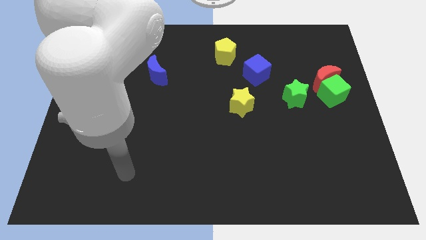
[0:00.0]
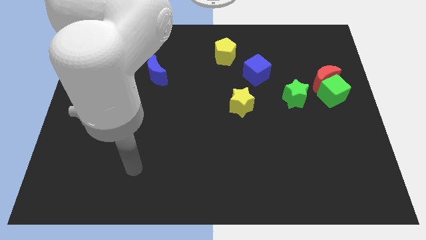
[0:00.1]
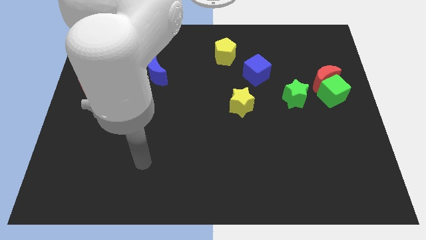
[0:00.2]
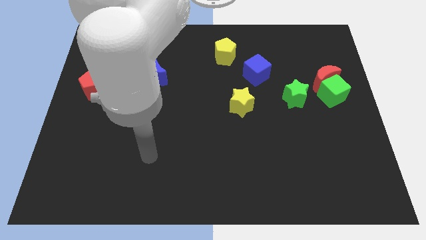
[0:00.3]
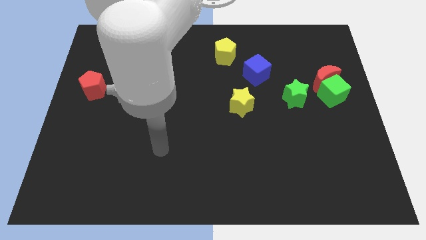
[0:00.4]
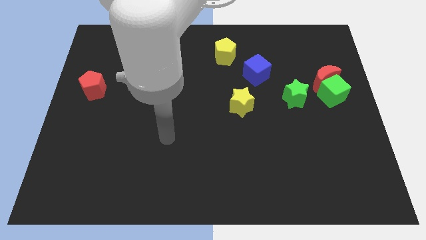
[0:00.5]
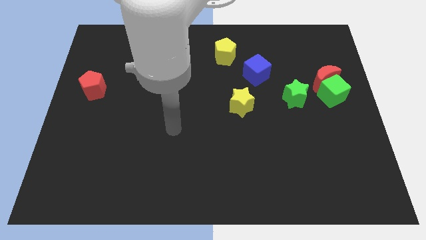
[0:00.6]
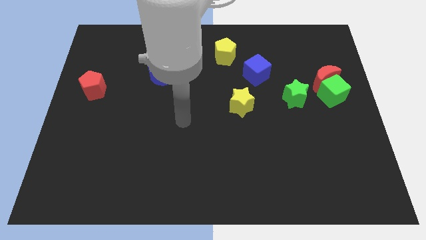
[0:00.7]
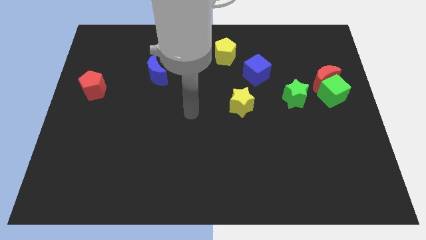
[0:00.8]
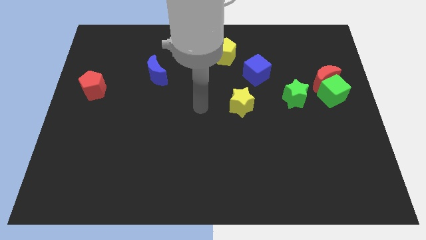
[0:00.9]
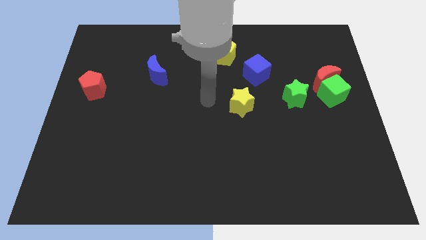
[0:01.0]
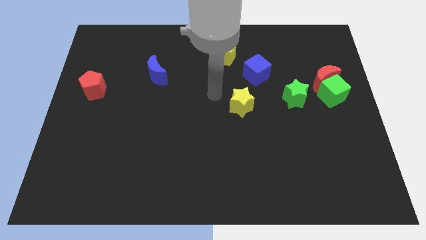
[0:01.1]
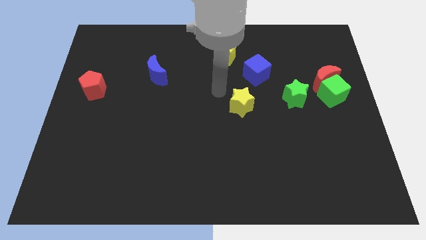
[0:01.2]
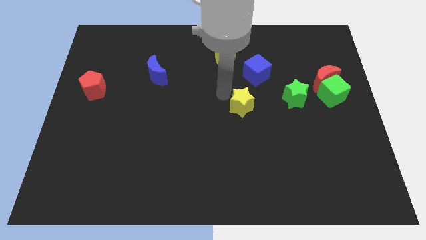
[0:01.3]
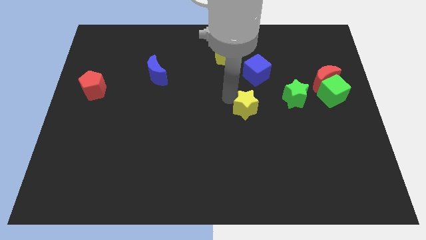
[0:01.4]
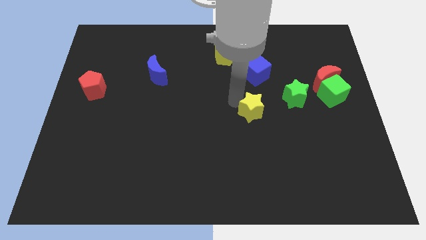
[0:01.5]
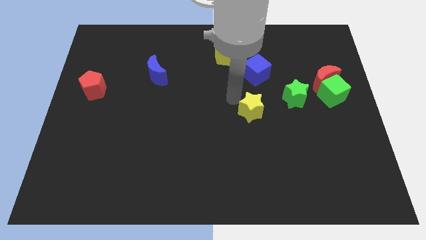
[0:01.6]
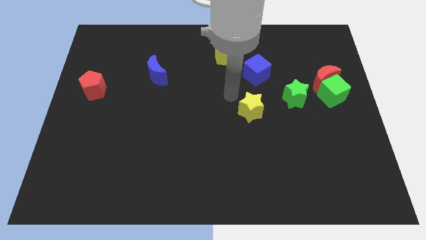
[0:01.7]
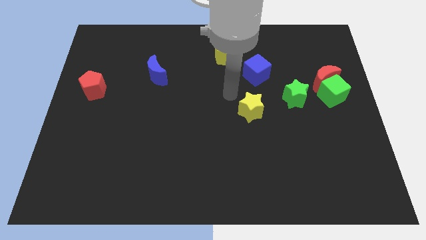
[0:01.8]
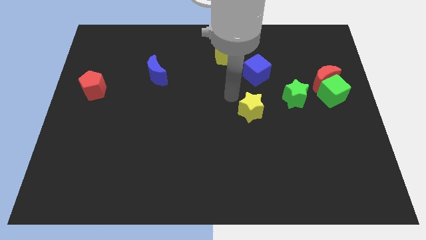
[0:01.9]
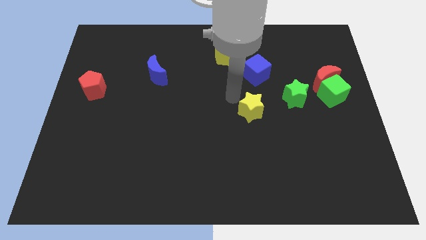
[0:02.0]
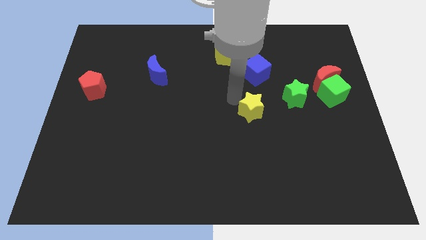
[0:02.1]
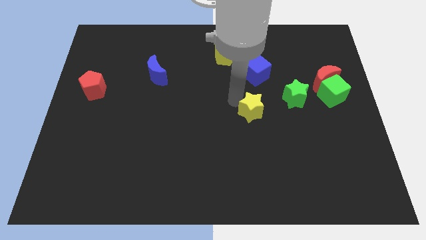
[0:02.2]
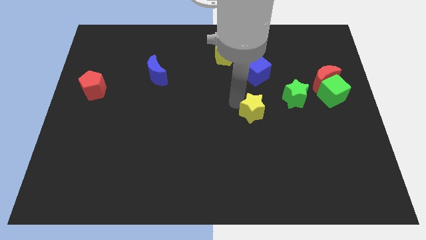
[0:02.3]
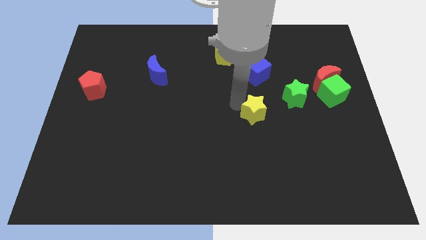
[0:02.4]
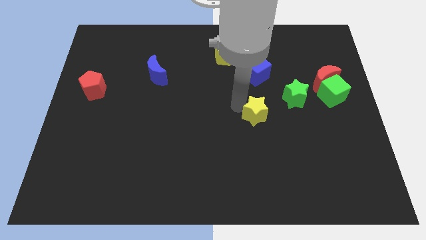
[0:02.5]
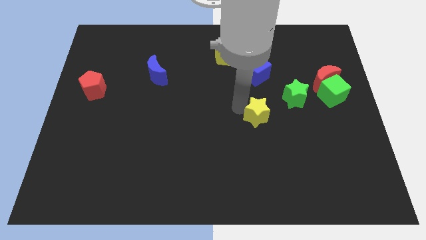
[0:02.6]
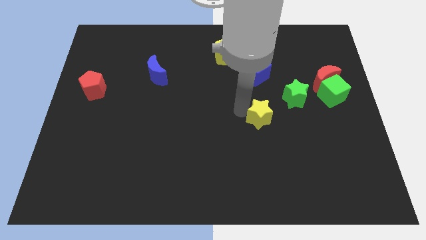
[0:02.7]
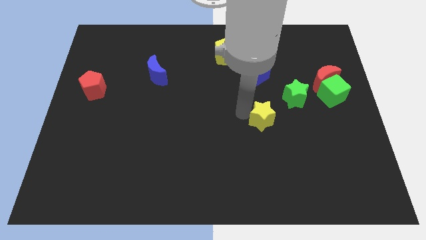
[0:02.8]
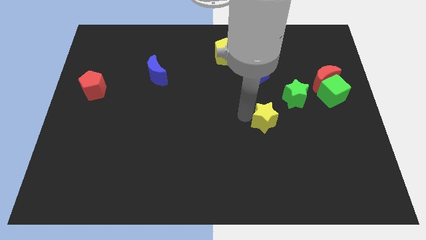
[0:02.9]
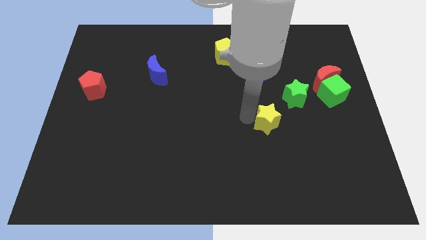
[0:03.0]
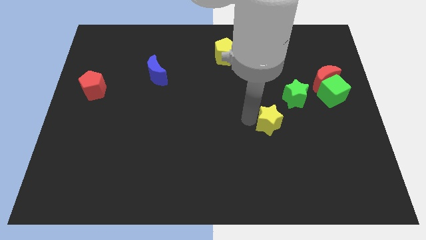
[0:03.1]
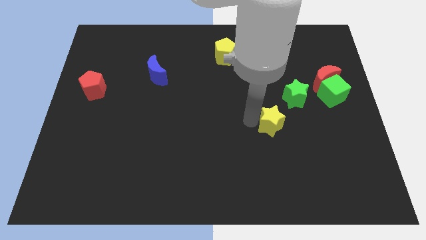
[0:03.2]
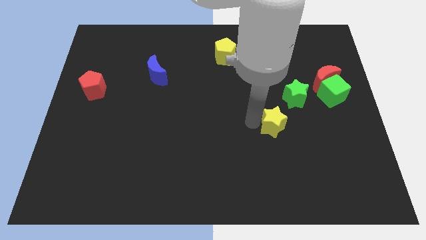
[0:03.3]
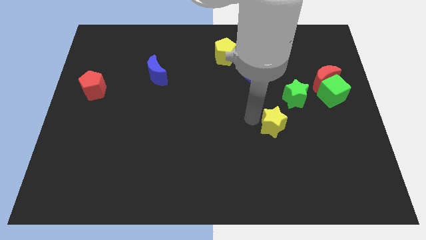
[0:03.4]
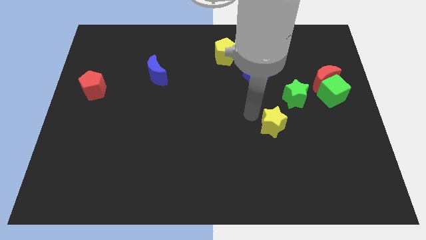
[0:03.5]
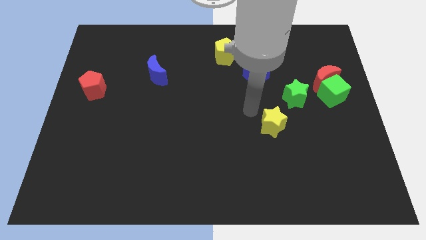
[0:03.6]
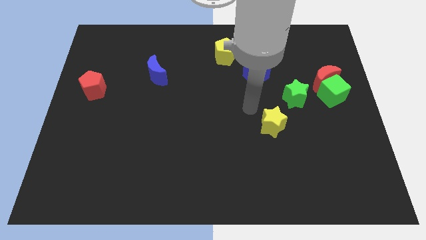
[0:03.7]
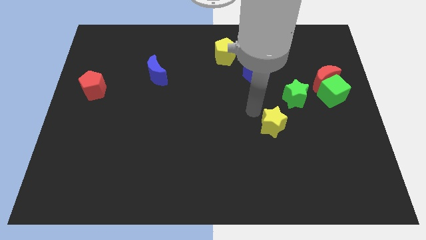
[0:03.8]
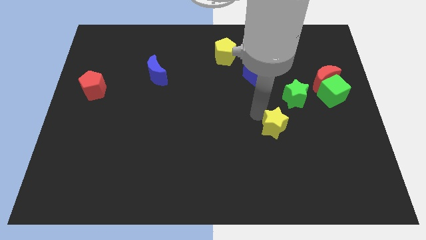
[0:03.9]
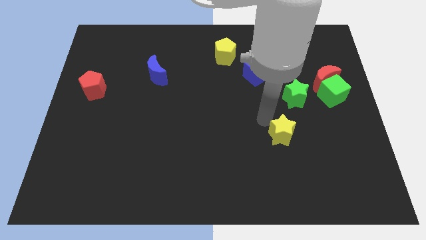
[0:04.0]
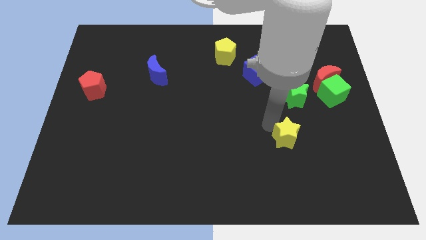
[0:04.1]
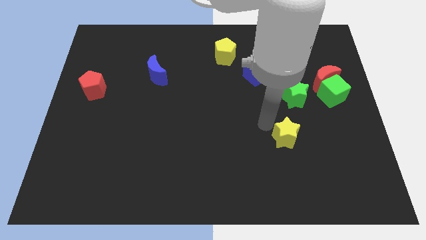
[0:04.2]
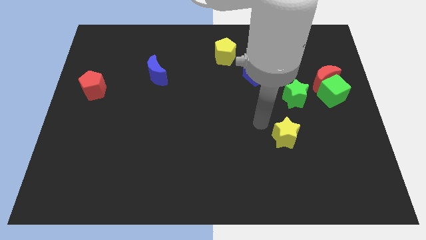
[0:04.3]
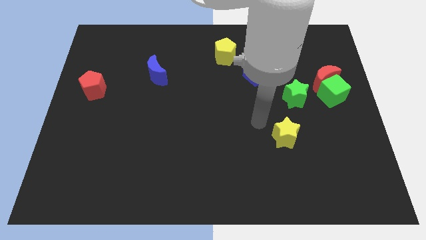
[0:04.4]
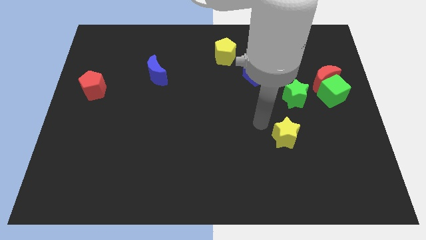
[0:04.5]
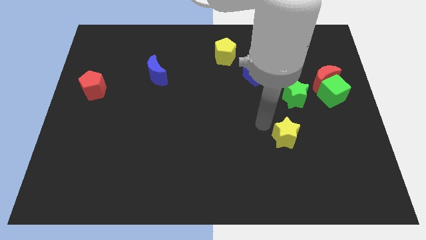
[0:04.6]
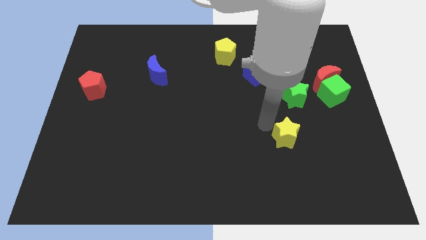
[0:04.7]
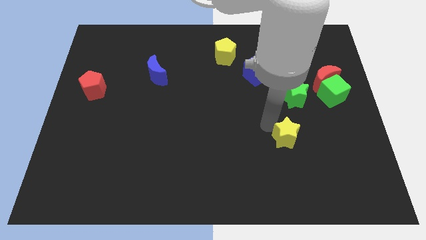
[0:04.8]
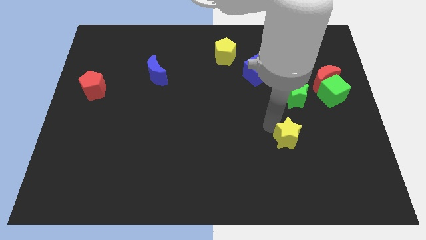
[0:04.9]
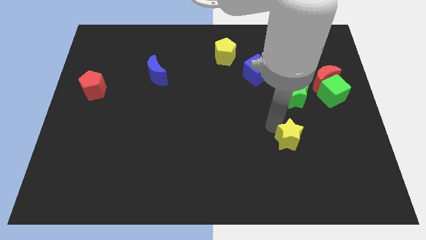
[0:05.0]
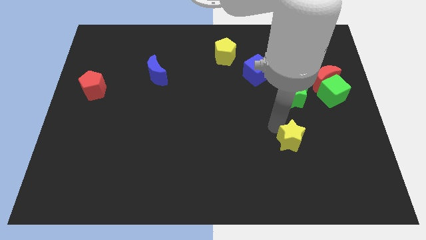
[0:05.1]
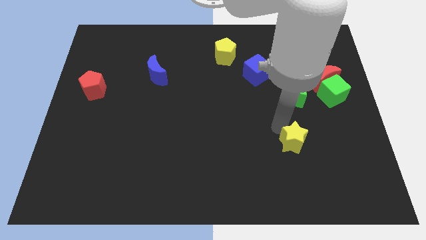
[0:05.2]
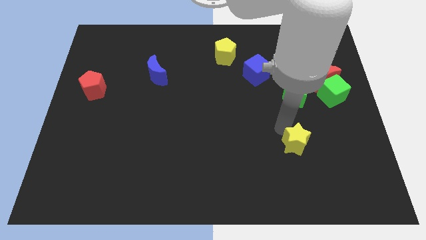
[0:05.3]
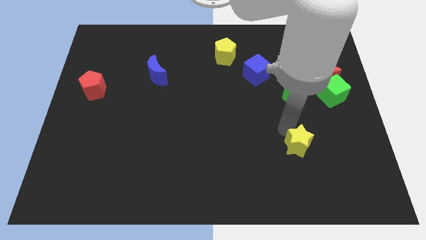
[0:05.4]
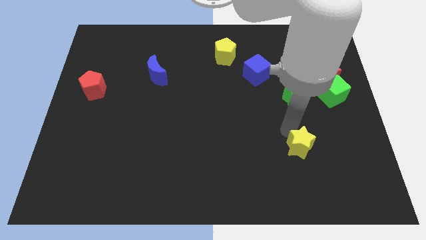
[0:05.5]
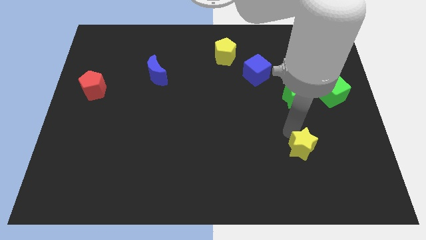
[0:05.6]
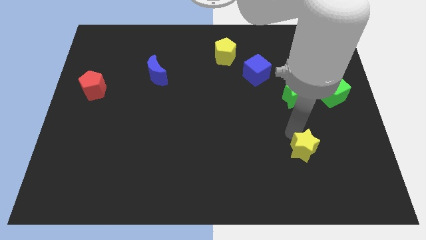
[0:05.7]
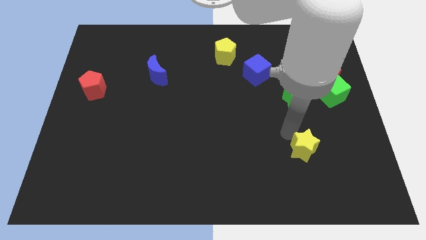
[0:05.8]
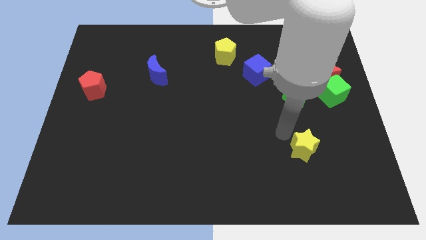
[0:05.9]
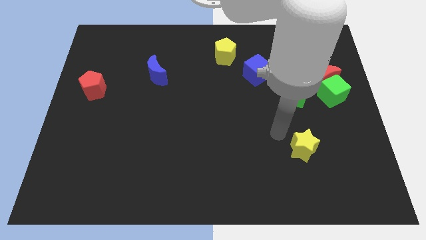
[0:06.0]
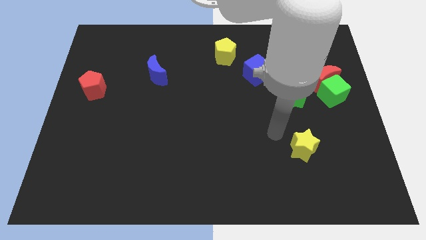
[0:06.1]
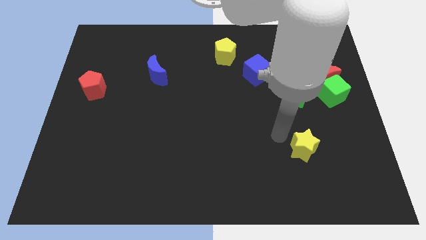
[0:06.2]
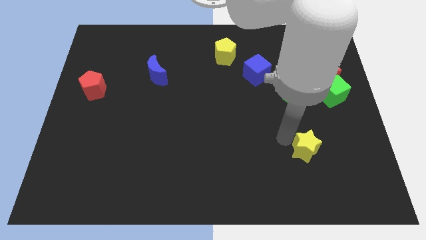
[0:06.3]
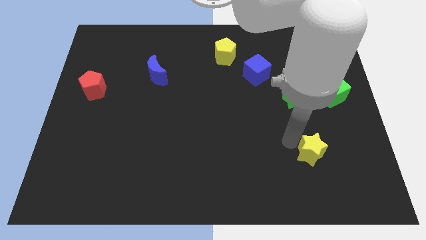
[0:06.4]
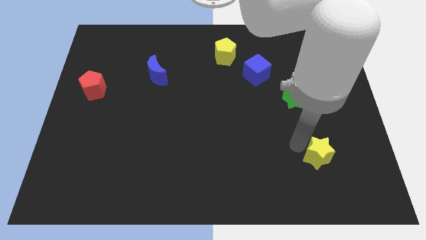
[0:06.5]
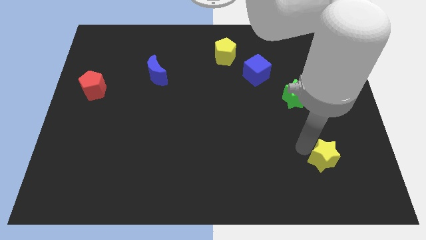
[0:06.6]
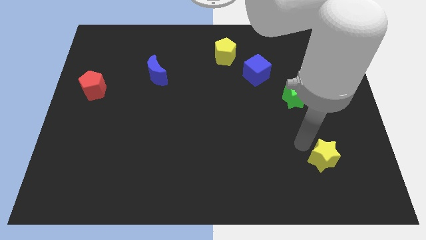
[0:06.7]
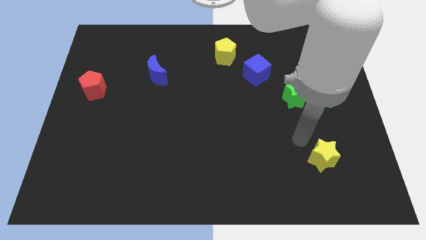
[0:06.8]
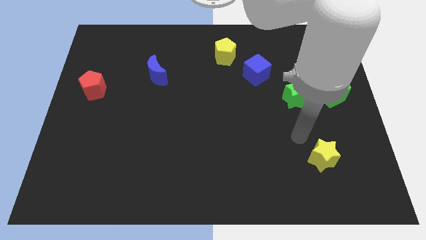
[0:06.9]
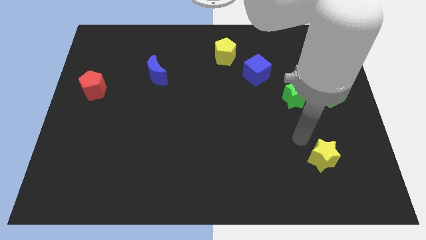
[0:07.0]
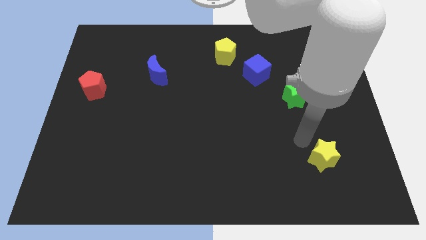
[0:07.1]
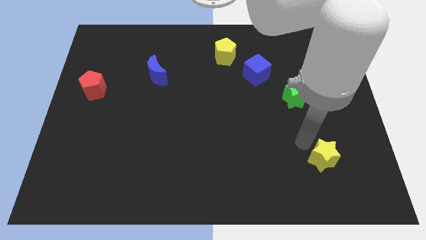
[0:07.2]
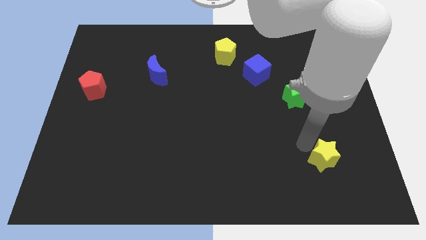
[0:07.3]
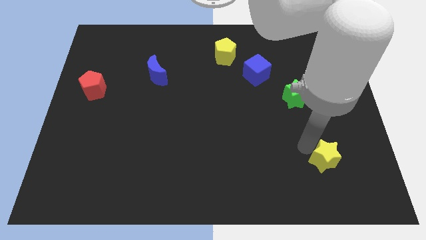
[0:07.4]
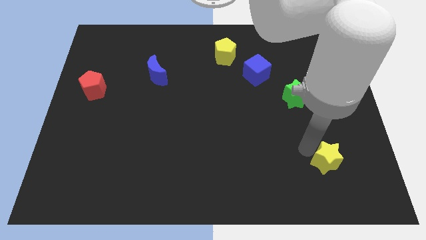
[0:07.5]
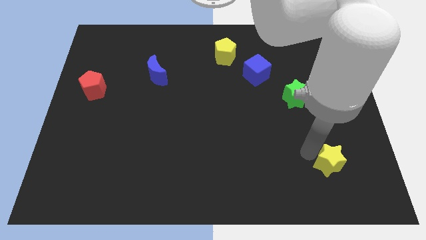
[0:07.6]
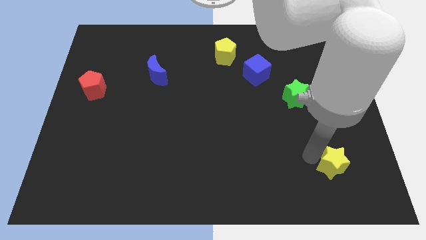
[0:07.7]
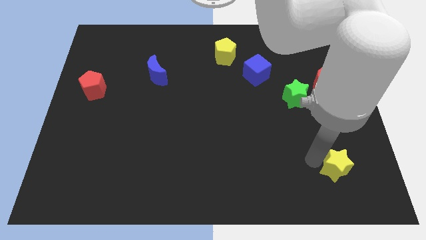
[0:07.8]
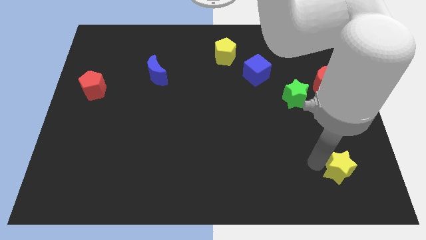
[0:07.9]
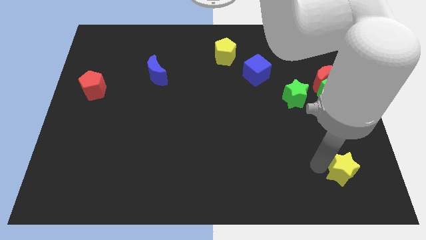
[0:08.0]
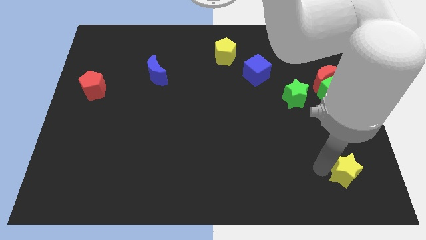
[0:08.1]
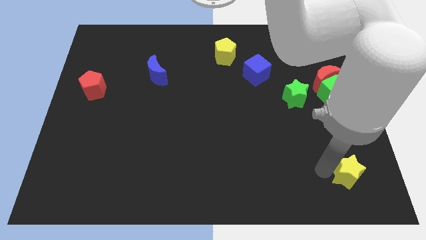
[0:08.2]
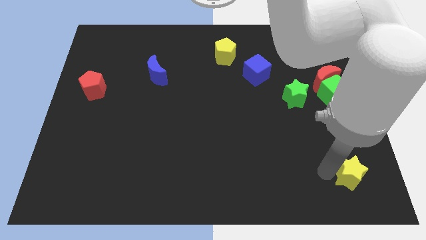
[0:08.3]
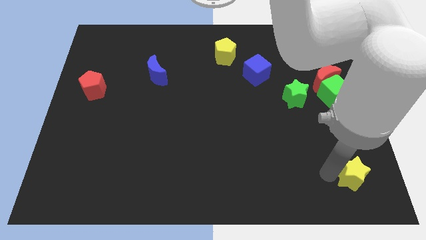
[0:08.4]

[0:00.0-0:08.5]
slide the yellow star to the bottom right
